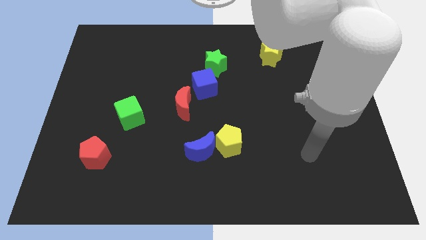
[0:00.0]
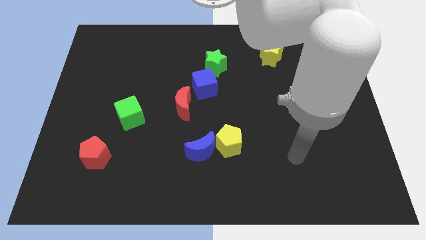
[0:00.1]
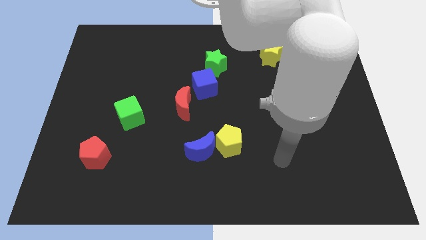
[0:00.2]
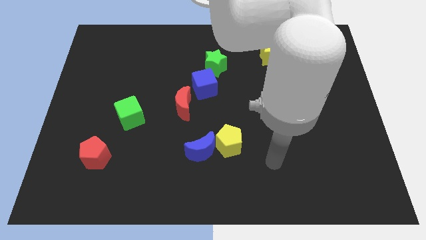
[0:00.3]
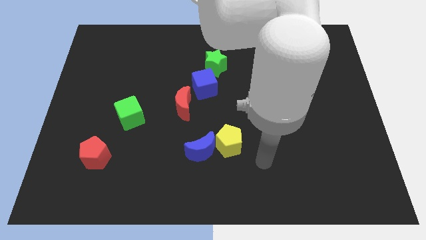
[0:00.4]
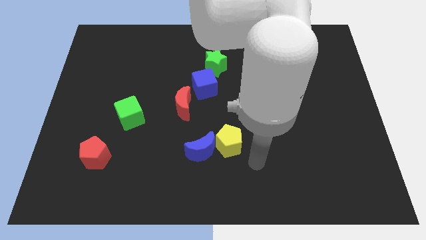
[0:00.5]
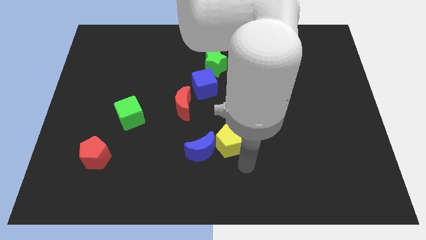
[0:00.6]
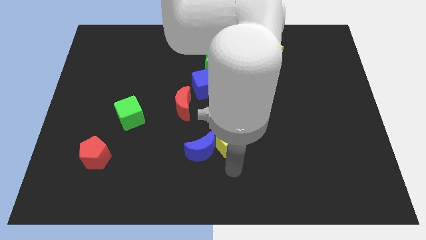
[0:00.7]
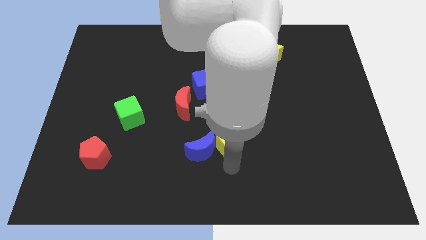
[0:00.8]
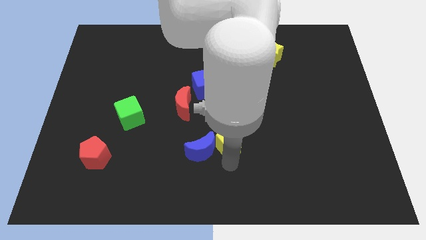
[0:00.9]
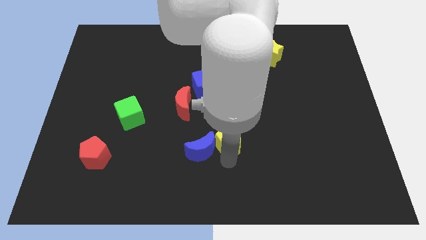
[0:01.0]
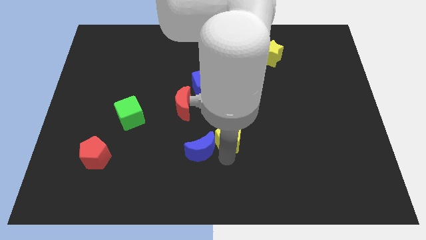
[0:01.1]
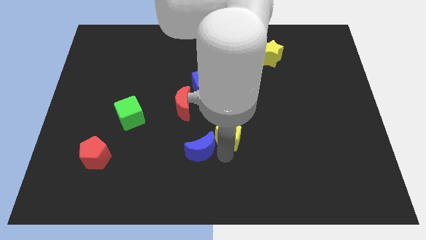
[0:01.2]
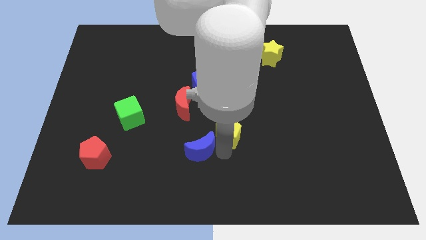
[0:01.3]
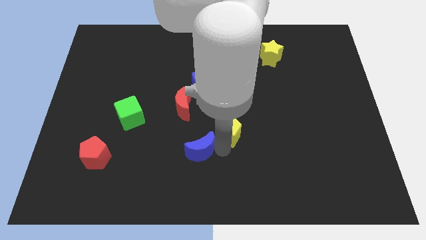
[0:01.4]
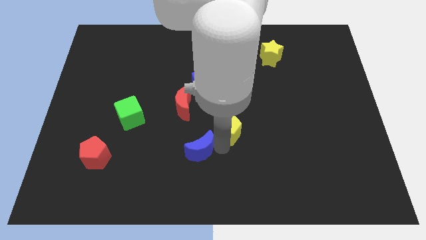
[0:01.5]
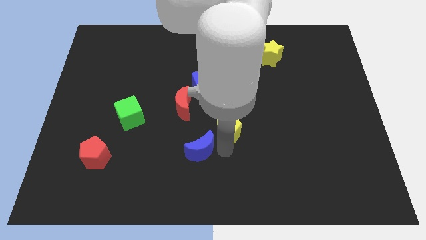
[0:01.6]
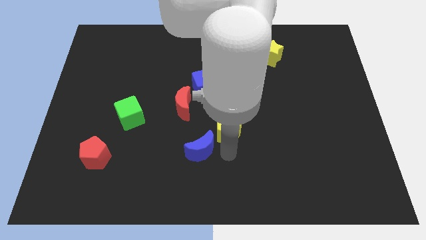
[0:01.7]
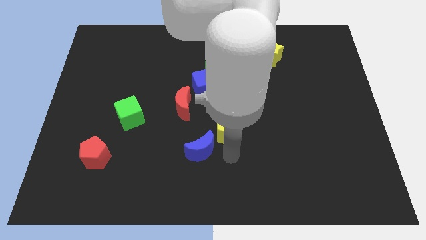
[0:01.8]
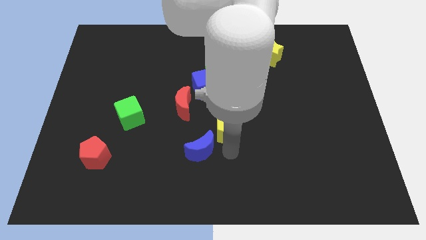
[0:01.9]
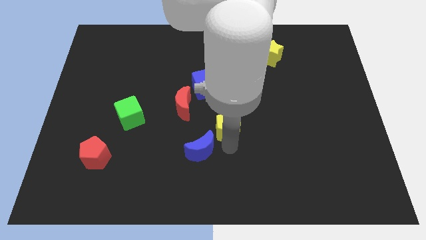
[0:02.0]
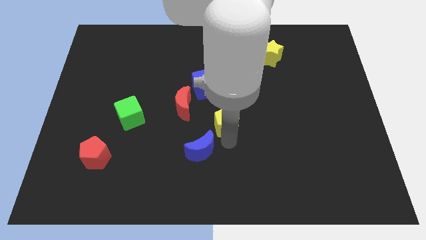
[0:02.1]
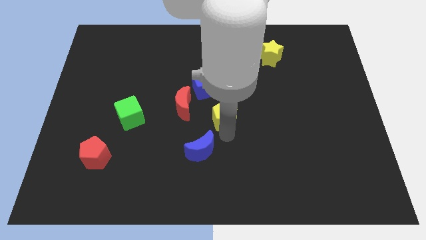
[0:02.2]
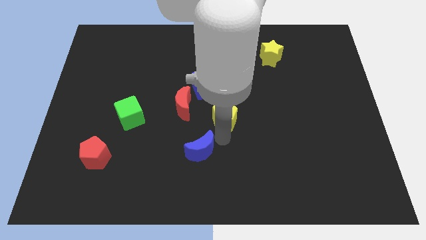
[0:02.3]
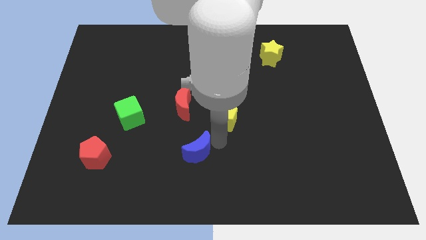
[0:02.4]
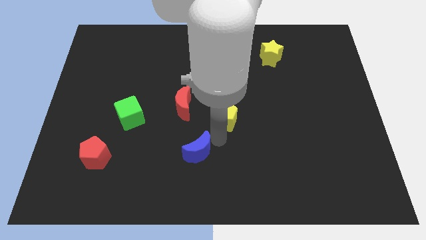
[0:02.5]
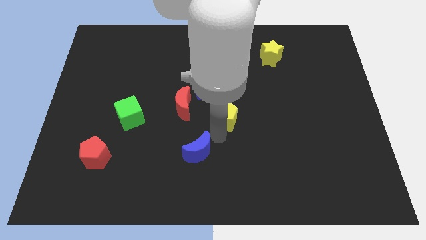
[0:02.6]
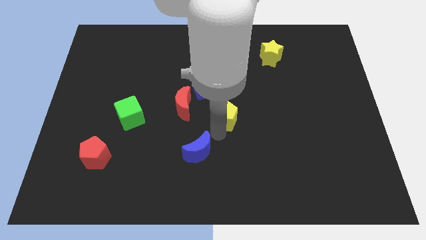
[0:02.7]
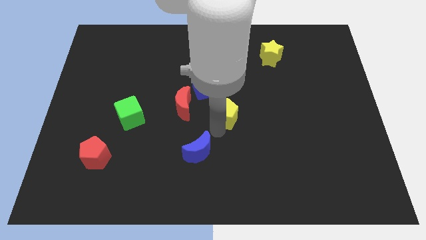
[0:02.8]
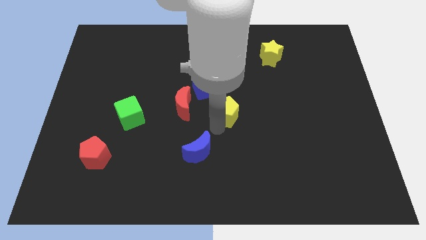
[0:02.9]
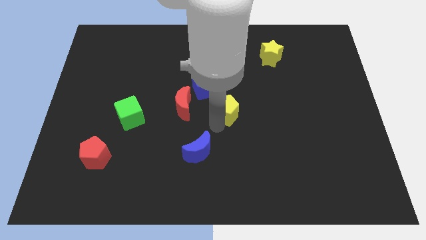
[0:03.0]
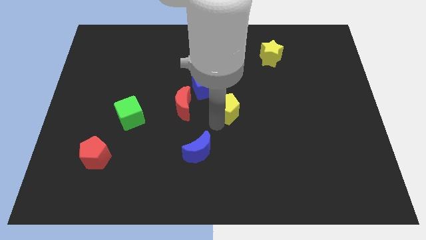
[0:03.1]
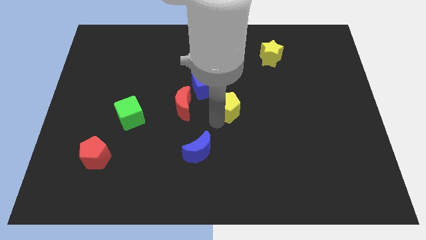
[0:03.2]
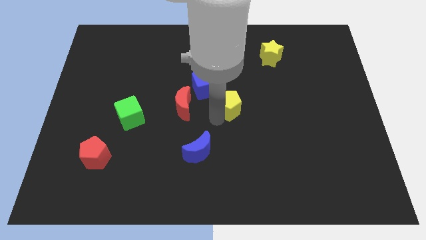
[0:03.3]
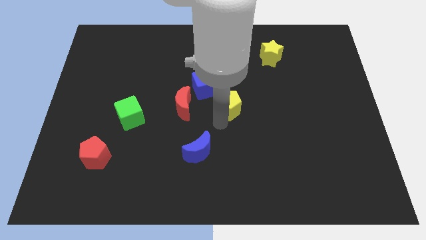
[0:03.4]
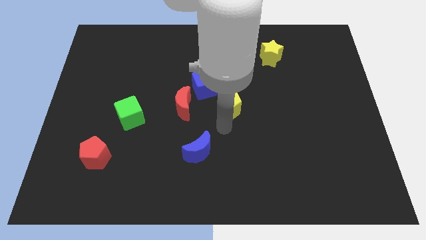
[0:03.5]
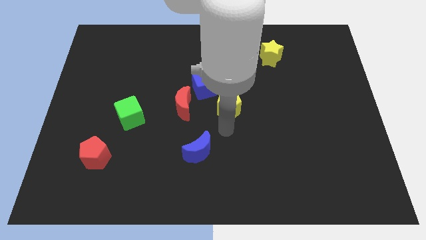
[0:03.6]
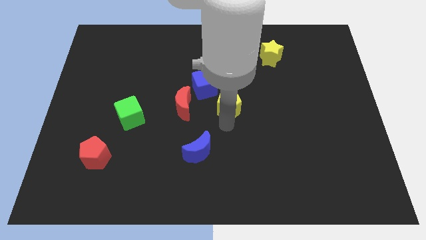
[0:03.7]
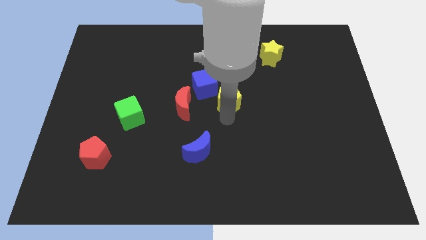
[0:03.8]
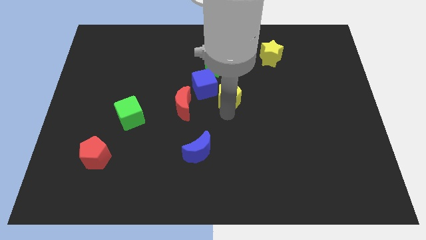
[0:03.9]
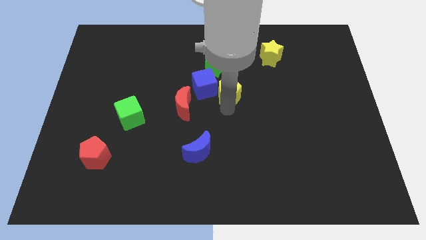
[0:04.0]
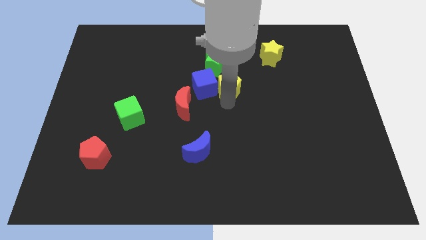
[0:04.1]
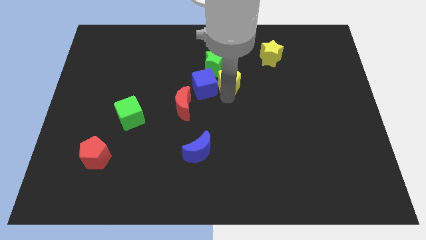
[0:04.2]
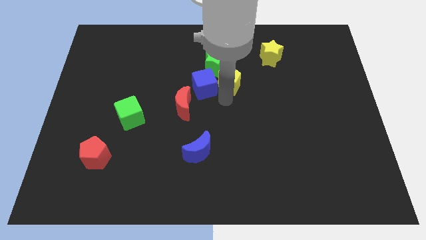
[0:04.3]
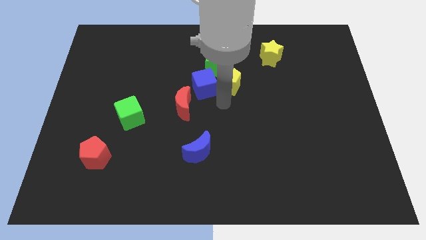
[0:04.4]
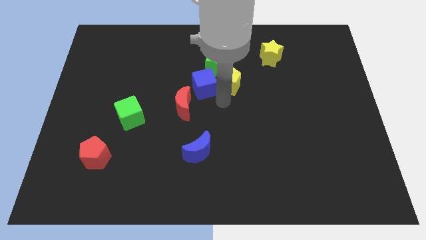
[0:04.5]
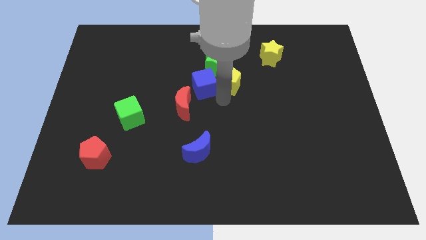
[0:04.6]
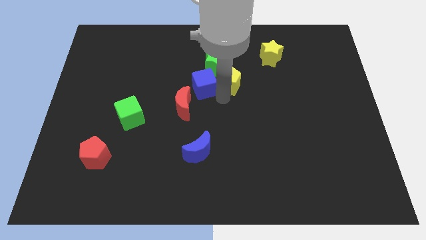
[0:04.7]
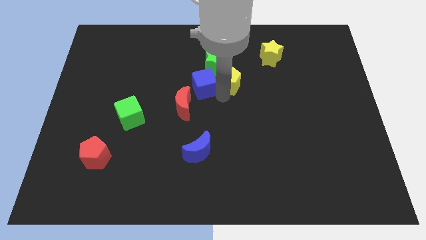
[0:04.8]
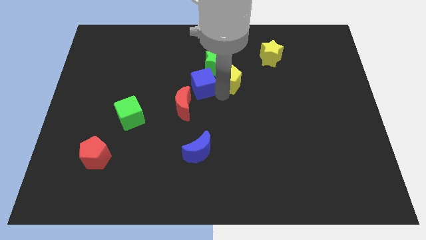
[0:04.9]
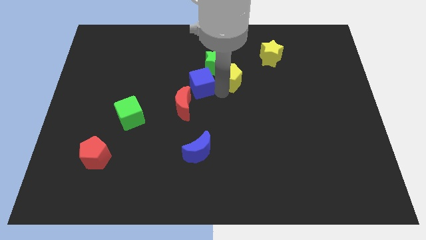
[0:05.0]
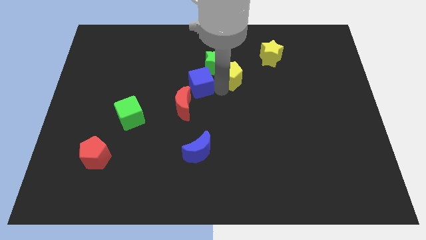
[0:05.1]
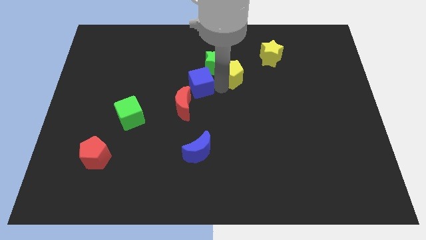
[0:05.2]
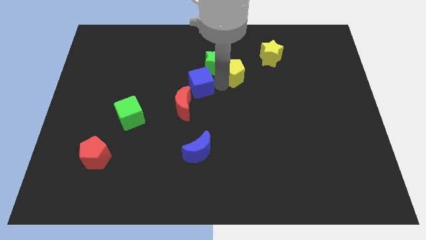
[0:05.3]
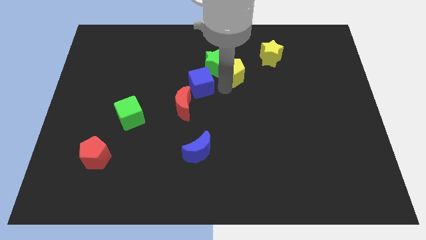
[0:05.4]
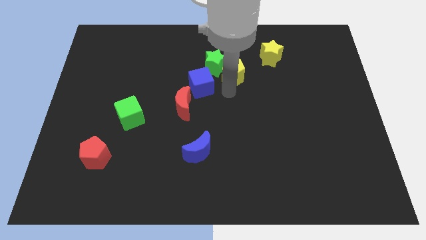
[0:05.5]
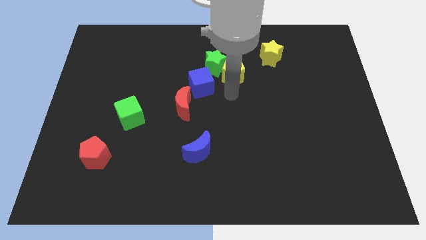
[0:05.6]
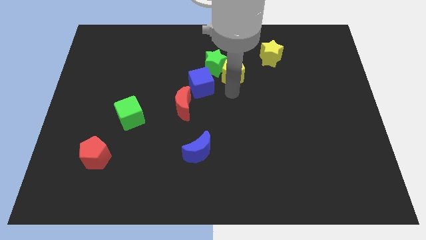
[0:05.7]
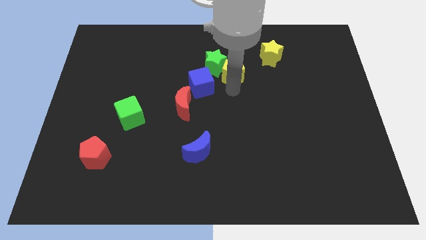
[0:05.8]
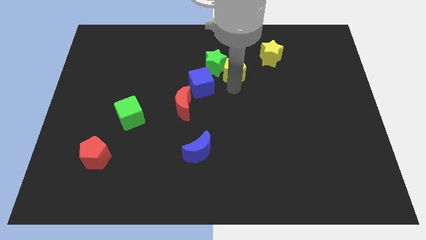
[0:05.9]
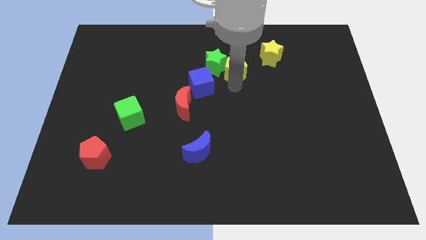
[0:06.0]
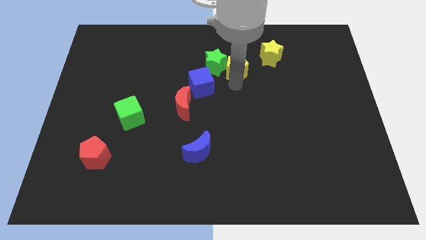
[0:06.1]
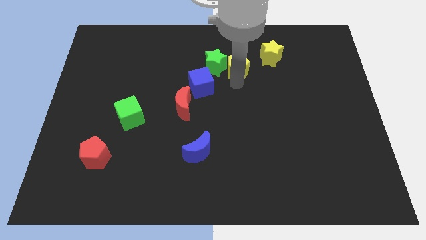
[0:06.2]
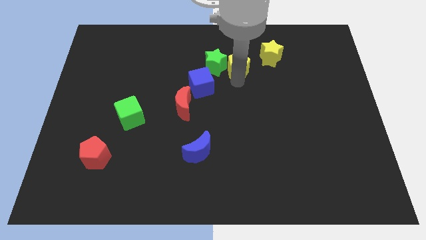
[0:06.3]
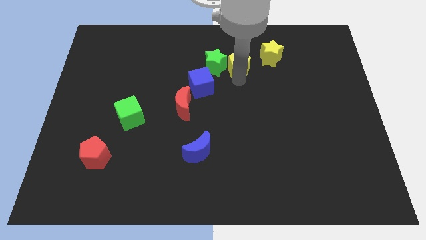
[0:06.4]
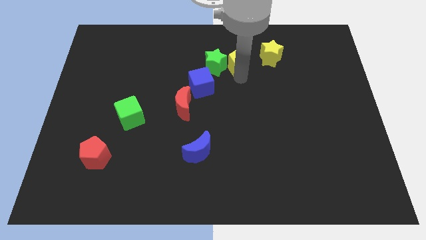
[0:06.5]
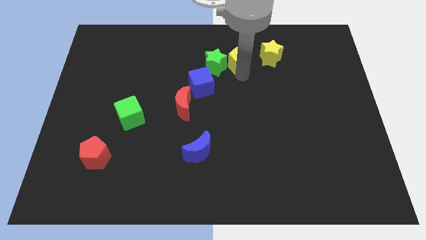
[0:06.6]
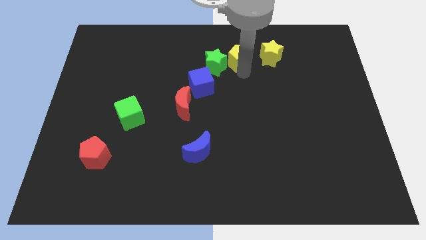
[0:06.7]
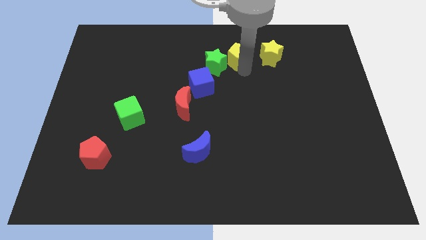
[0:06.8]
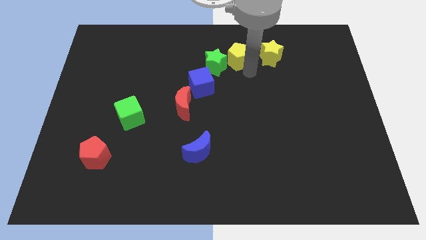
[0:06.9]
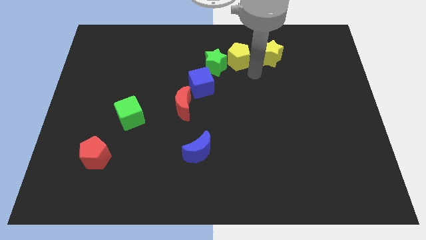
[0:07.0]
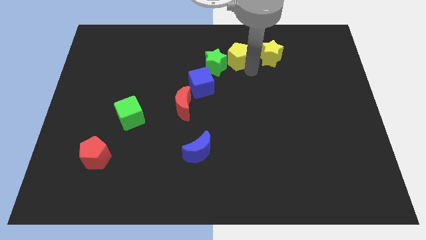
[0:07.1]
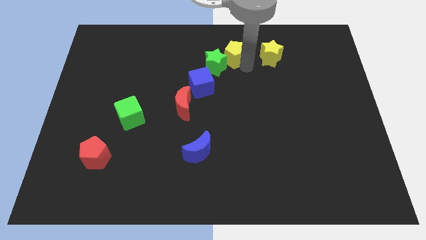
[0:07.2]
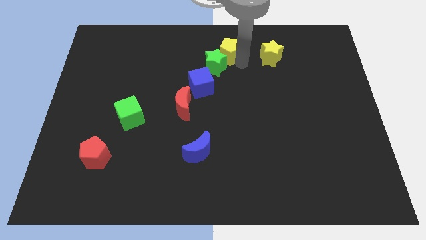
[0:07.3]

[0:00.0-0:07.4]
slide the yellow pentagon to the top
